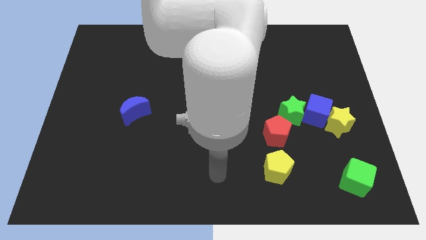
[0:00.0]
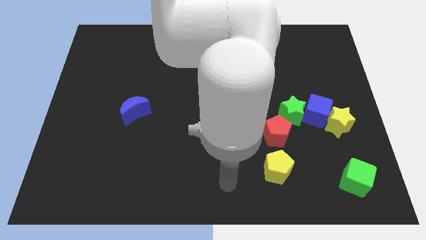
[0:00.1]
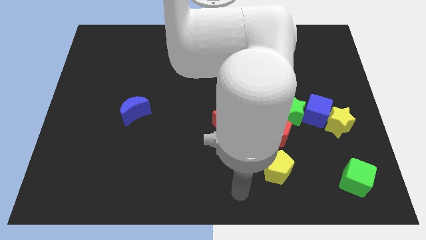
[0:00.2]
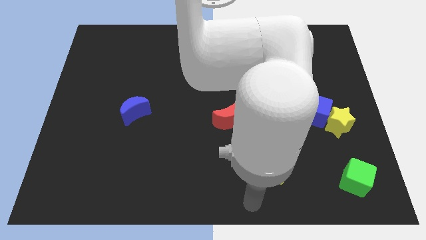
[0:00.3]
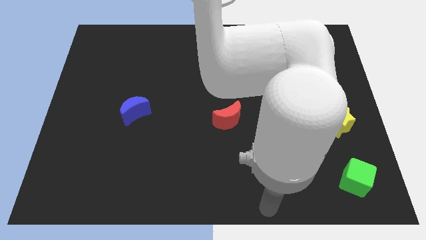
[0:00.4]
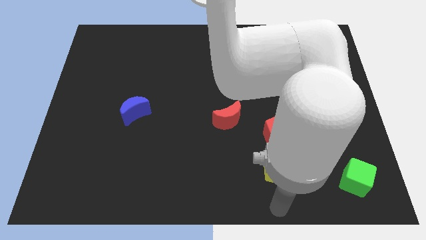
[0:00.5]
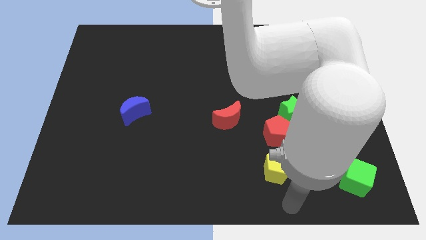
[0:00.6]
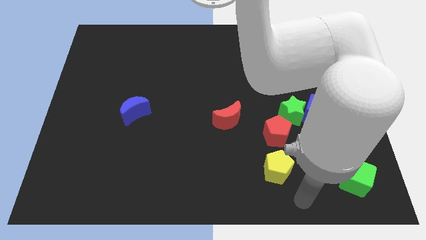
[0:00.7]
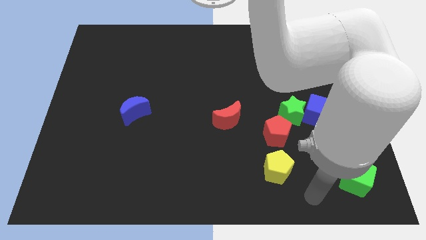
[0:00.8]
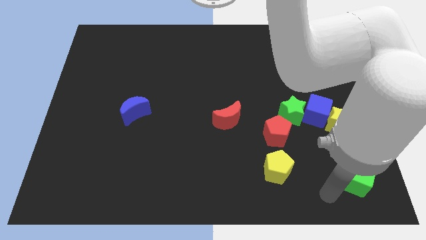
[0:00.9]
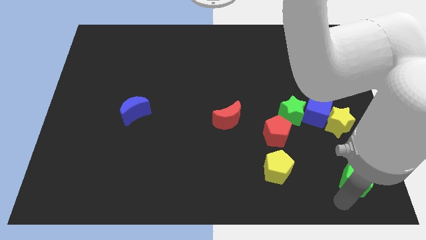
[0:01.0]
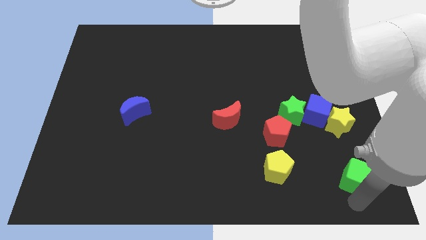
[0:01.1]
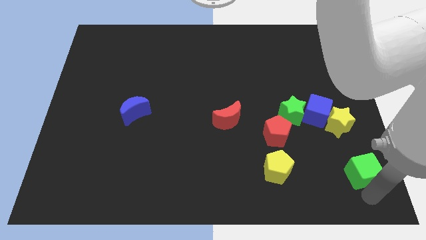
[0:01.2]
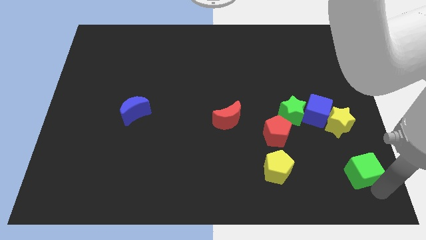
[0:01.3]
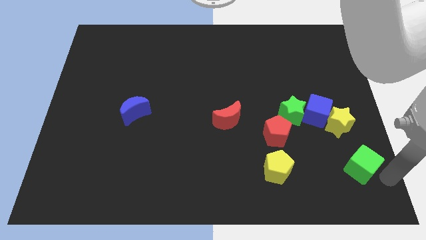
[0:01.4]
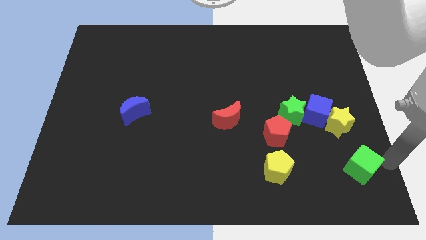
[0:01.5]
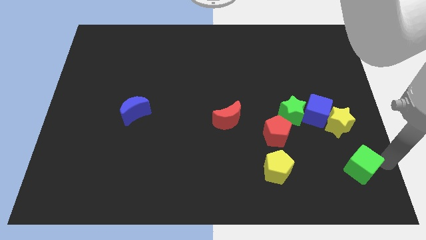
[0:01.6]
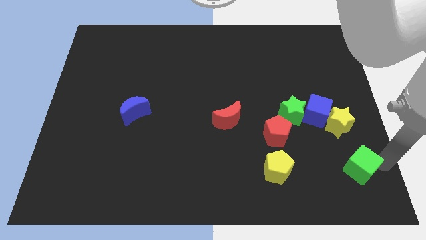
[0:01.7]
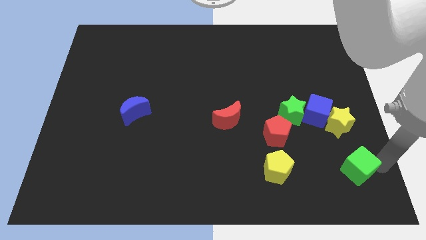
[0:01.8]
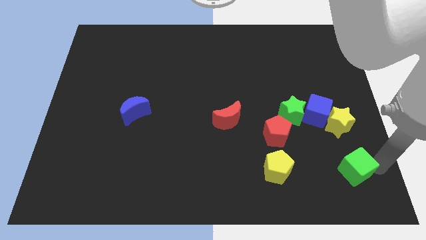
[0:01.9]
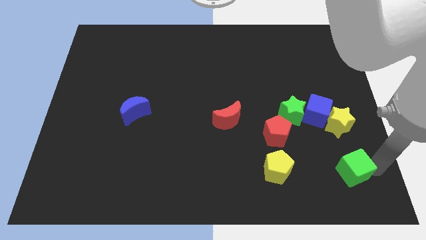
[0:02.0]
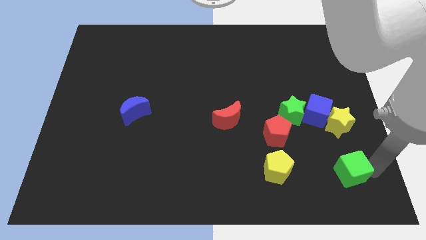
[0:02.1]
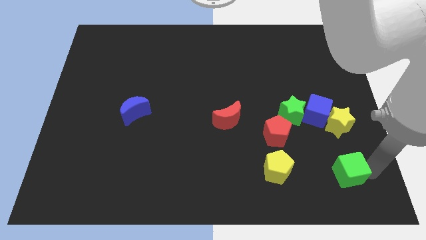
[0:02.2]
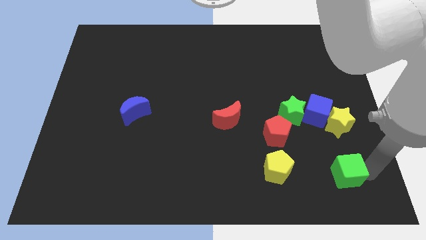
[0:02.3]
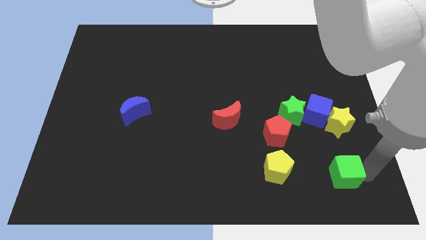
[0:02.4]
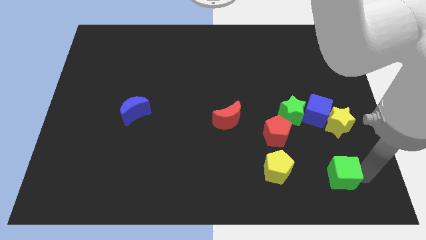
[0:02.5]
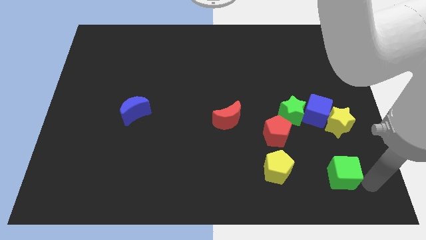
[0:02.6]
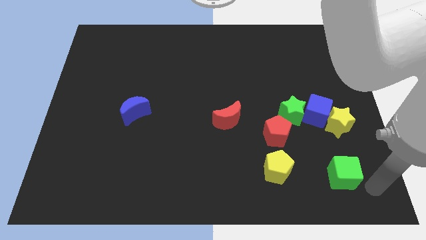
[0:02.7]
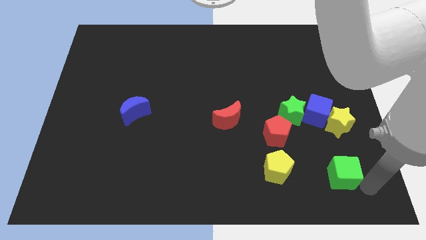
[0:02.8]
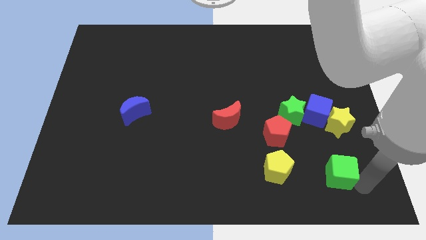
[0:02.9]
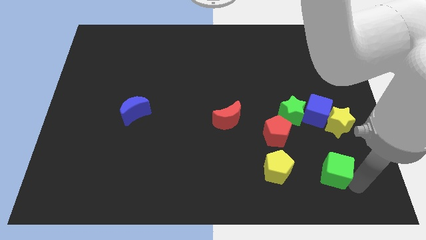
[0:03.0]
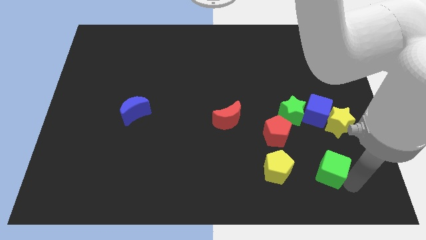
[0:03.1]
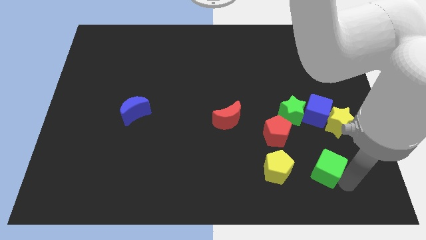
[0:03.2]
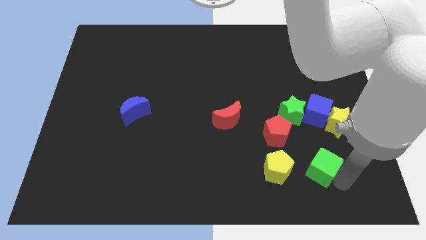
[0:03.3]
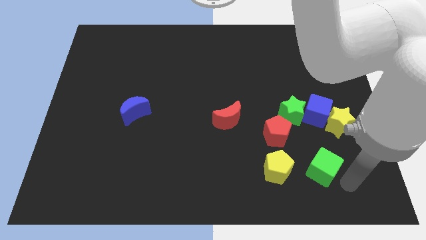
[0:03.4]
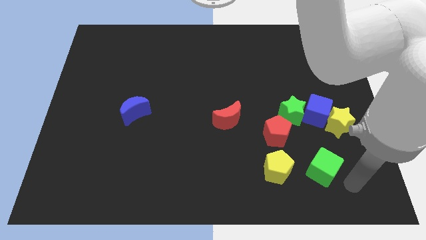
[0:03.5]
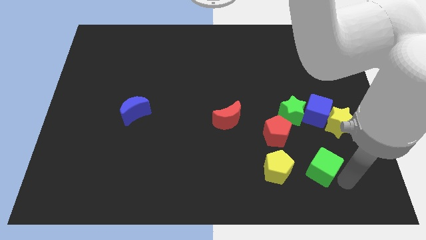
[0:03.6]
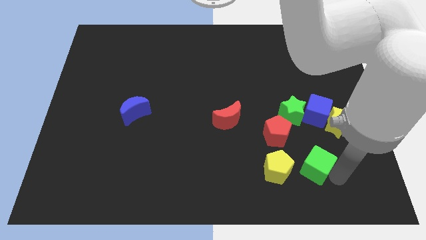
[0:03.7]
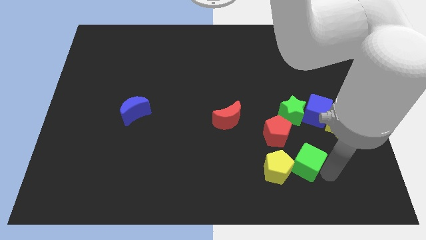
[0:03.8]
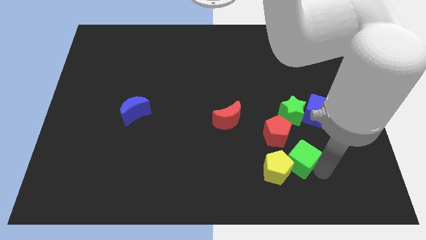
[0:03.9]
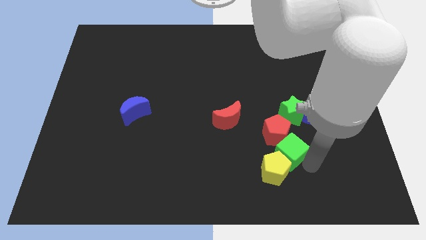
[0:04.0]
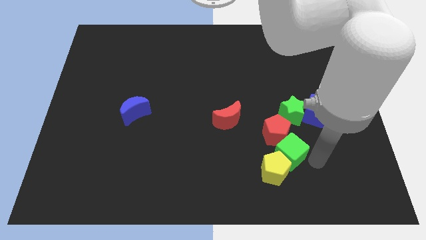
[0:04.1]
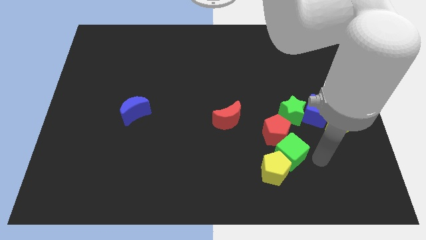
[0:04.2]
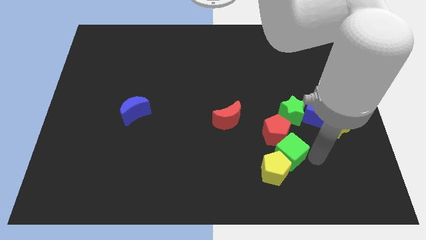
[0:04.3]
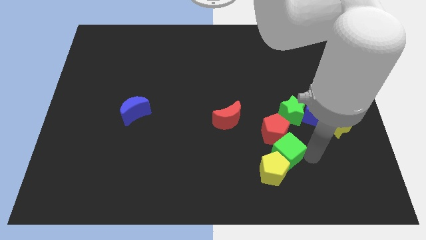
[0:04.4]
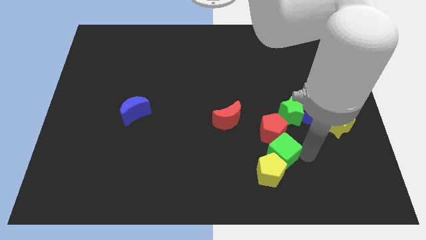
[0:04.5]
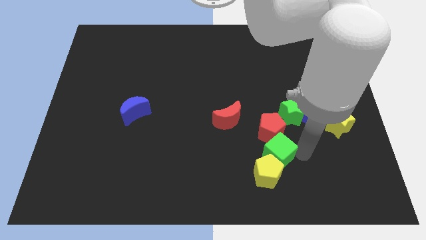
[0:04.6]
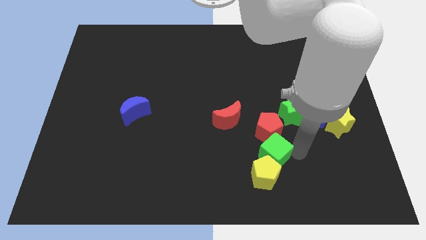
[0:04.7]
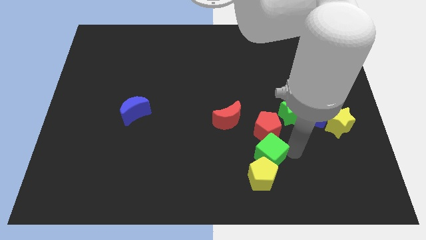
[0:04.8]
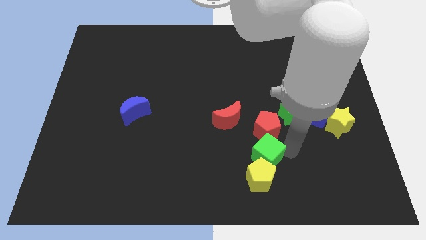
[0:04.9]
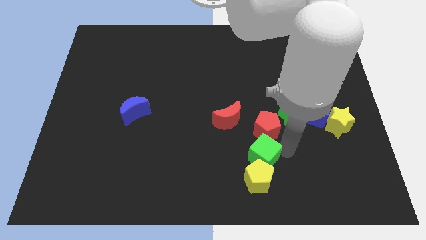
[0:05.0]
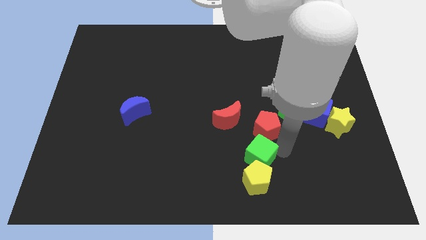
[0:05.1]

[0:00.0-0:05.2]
put the green cube to the top left side of the yellow pentagon

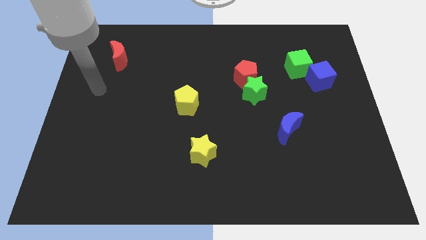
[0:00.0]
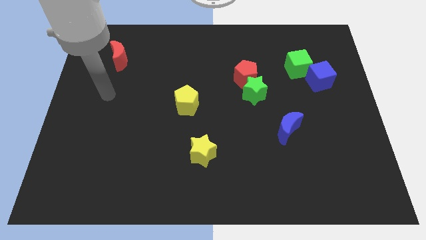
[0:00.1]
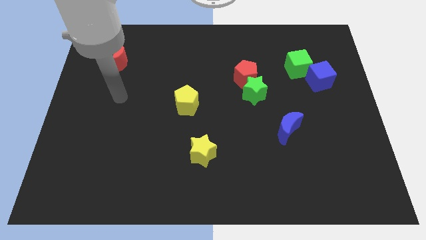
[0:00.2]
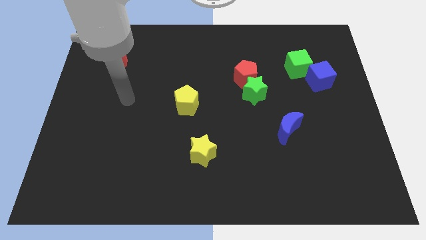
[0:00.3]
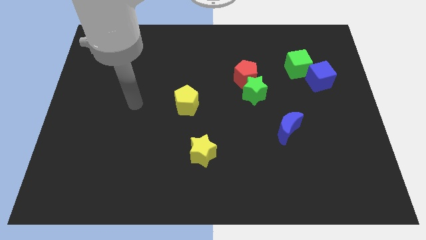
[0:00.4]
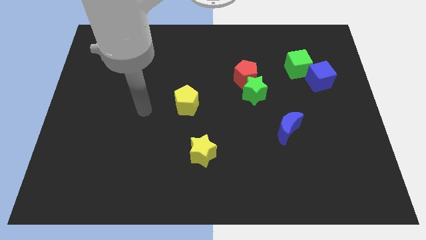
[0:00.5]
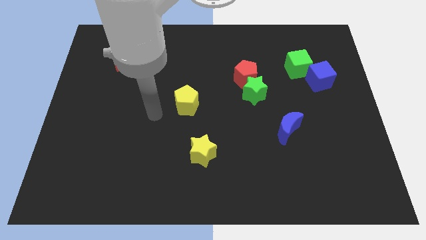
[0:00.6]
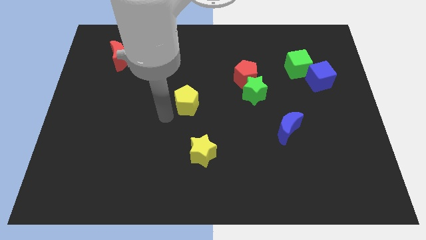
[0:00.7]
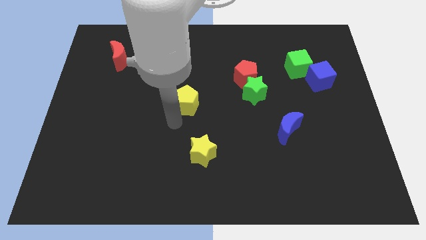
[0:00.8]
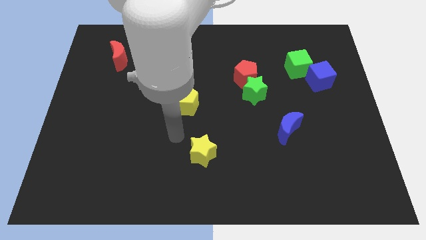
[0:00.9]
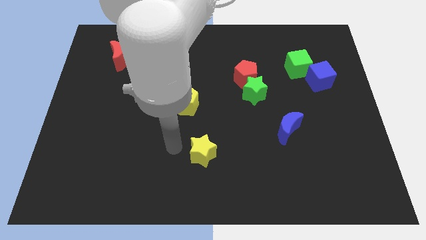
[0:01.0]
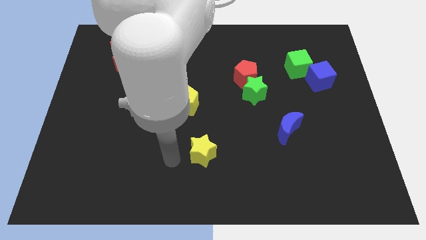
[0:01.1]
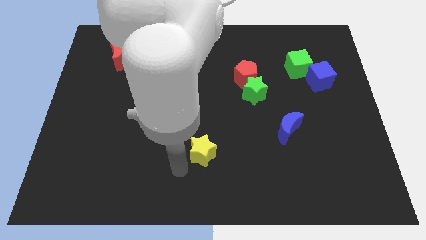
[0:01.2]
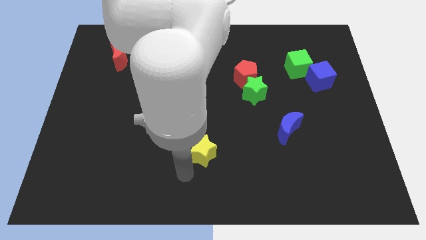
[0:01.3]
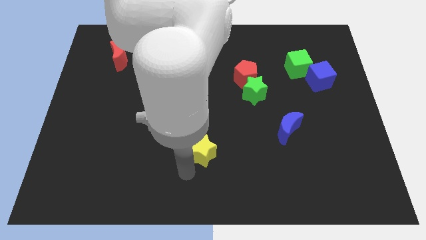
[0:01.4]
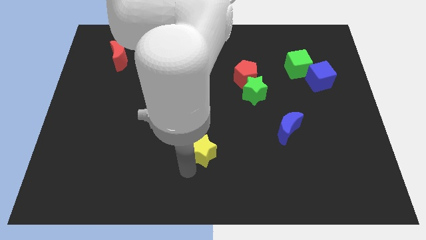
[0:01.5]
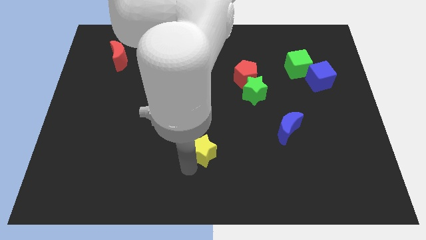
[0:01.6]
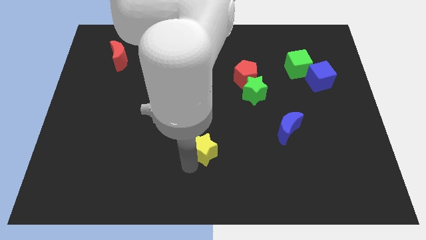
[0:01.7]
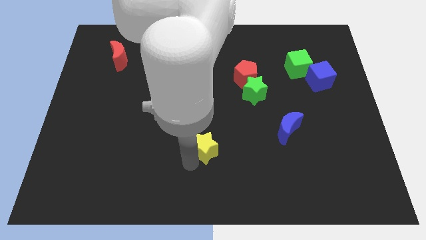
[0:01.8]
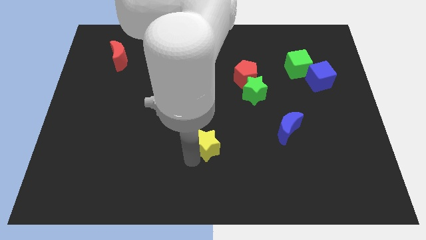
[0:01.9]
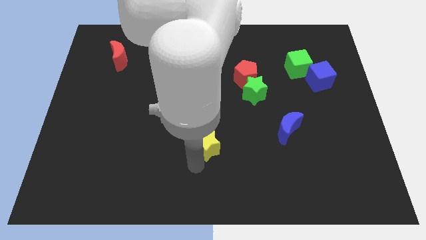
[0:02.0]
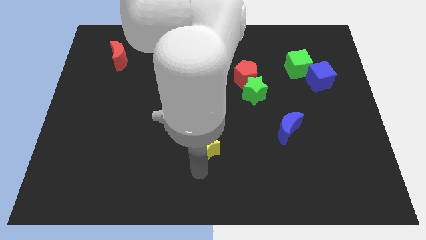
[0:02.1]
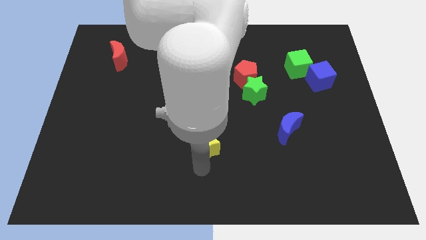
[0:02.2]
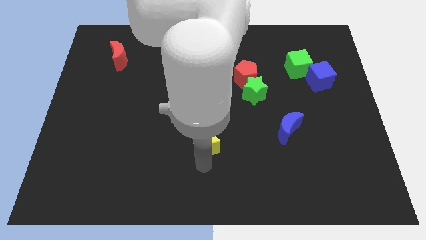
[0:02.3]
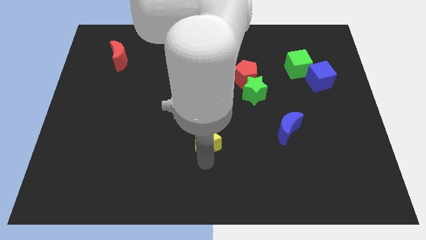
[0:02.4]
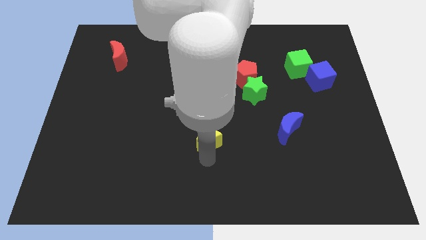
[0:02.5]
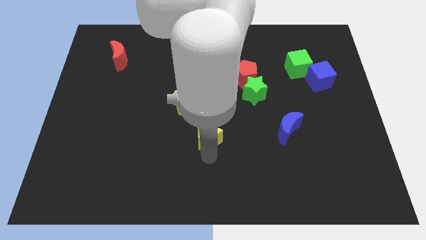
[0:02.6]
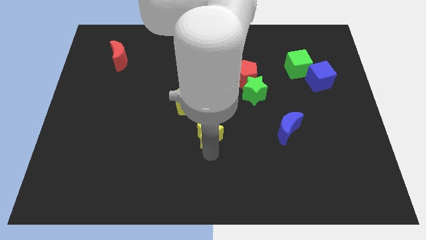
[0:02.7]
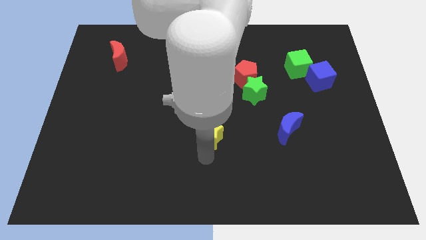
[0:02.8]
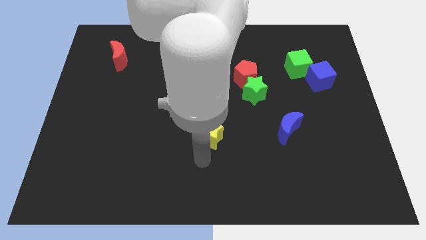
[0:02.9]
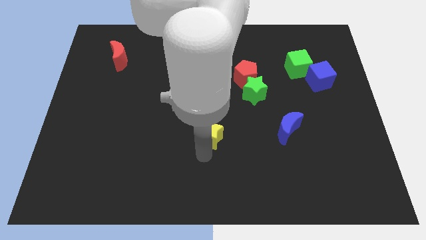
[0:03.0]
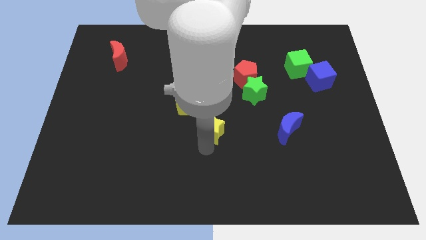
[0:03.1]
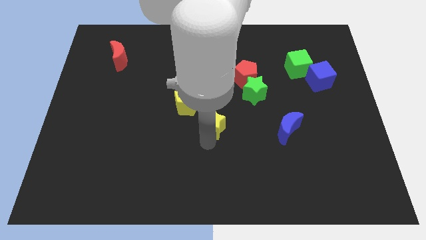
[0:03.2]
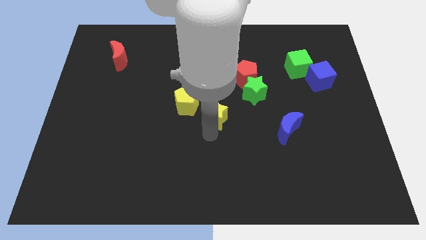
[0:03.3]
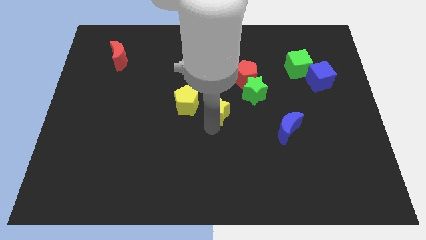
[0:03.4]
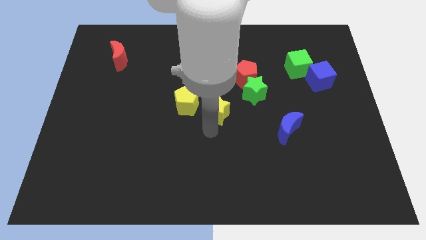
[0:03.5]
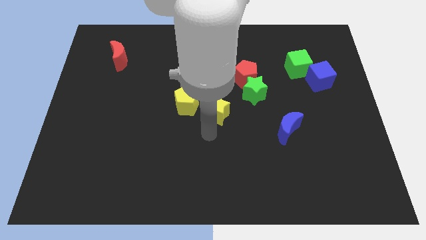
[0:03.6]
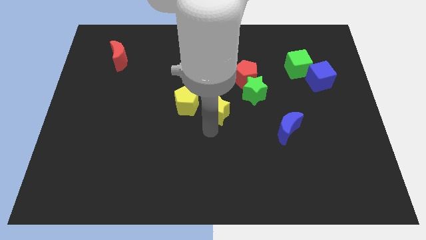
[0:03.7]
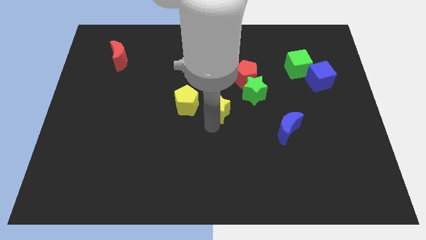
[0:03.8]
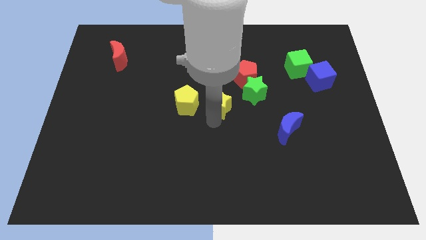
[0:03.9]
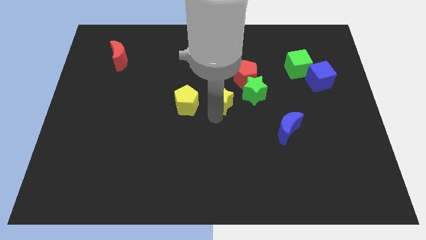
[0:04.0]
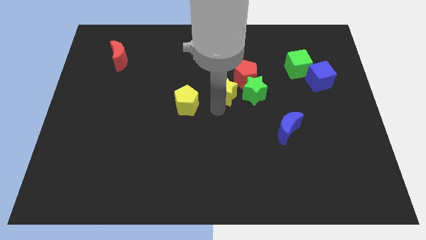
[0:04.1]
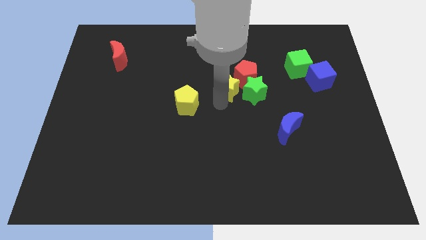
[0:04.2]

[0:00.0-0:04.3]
push the yellow star to the top left of the green star
